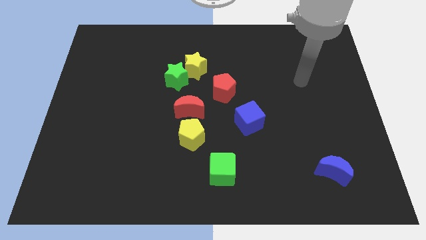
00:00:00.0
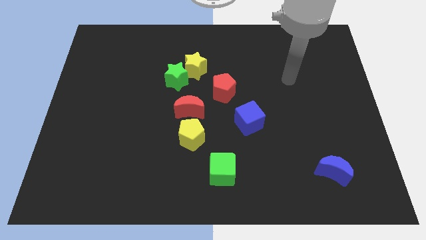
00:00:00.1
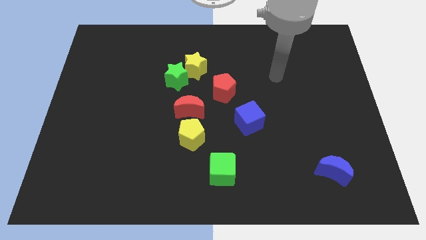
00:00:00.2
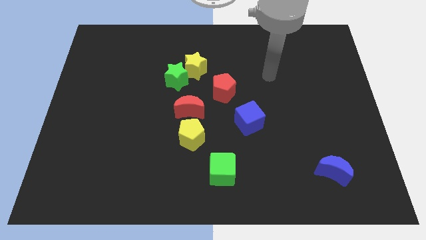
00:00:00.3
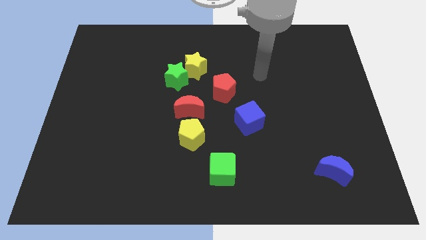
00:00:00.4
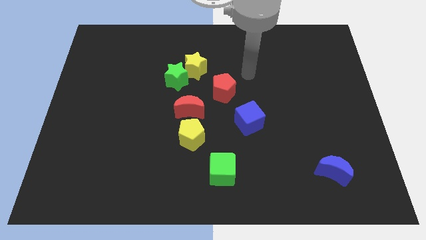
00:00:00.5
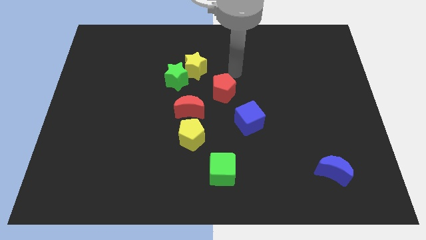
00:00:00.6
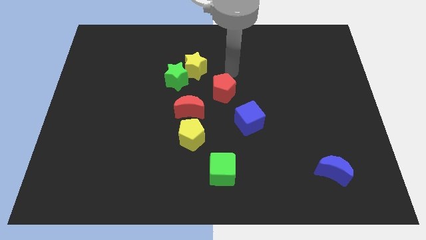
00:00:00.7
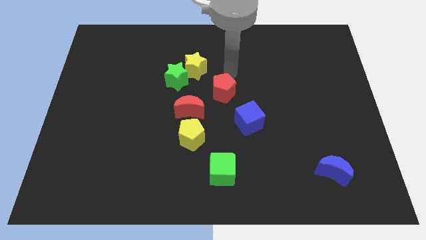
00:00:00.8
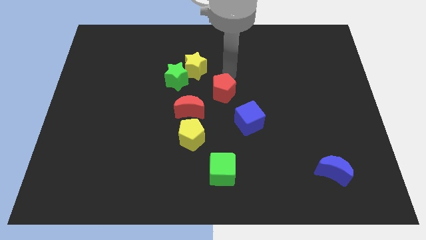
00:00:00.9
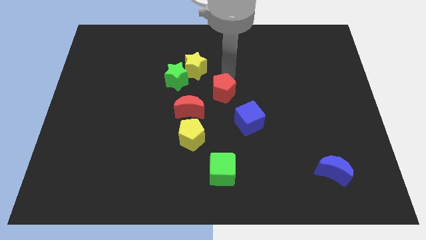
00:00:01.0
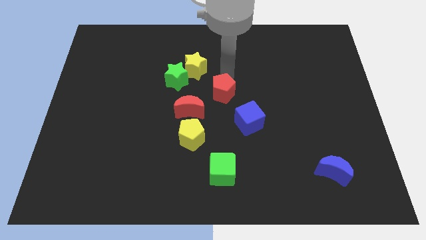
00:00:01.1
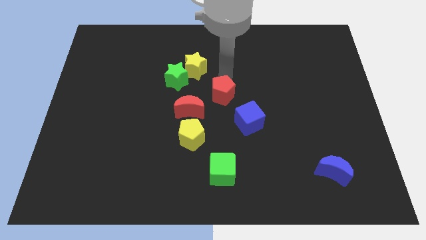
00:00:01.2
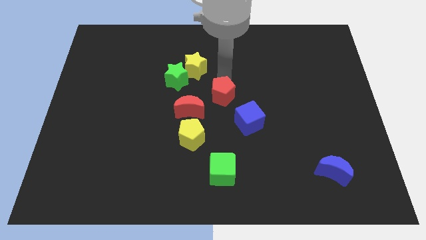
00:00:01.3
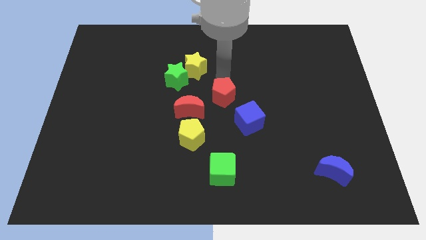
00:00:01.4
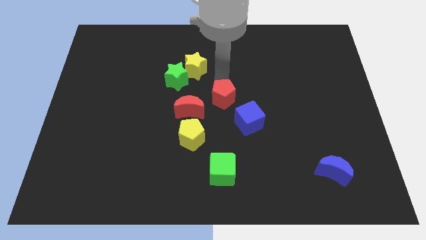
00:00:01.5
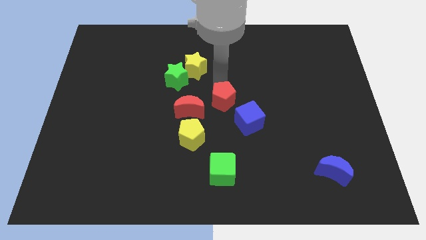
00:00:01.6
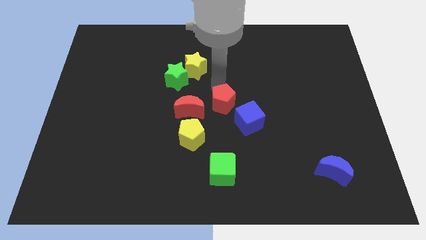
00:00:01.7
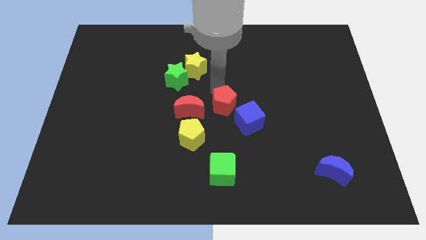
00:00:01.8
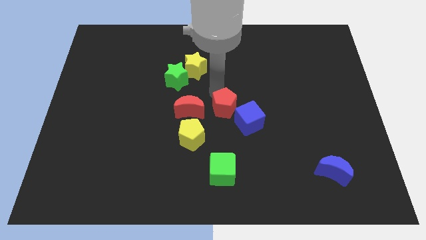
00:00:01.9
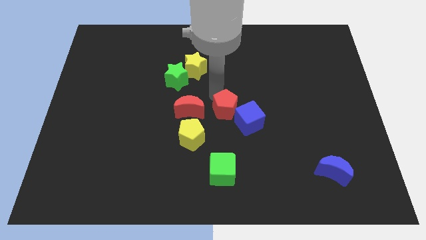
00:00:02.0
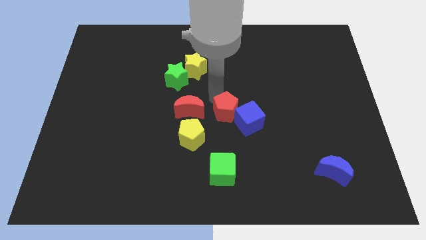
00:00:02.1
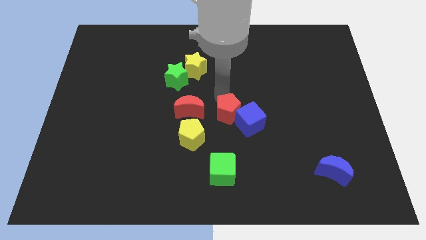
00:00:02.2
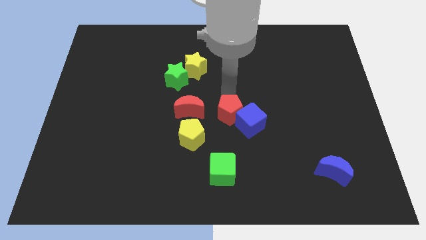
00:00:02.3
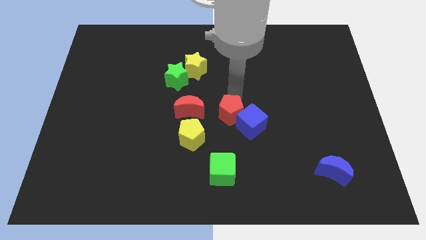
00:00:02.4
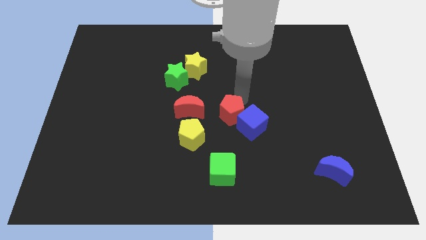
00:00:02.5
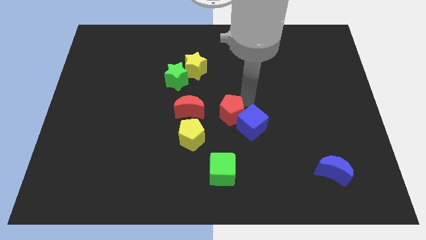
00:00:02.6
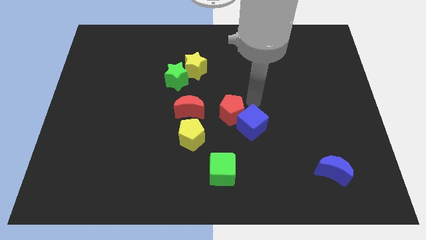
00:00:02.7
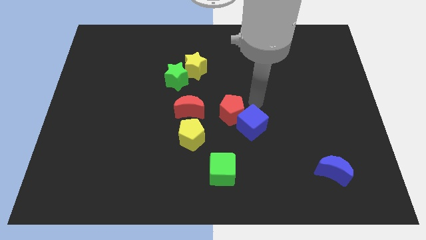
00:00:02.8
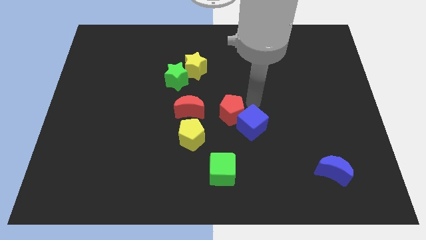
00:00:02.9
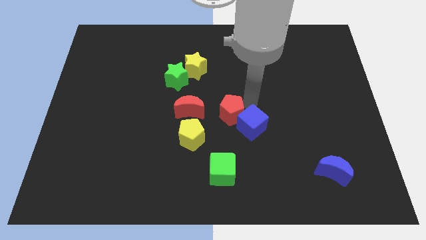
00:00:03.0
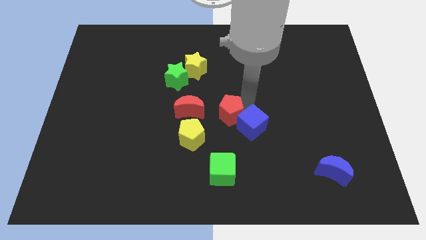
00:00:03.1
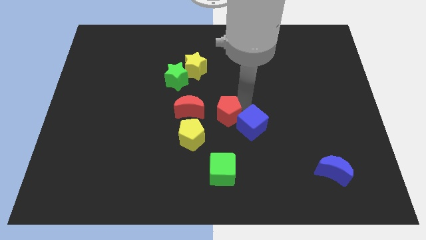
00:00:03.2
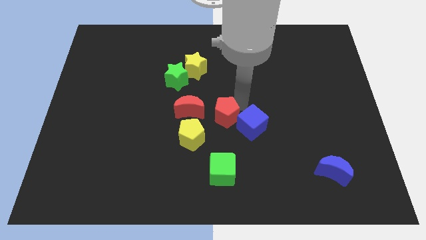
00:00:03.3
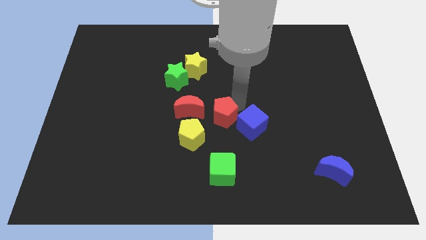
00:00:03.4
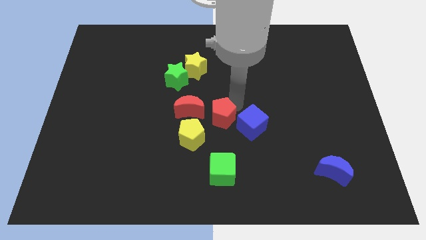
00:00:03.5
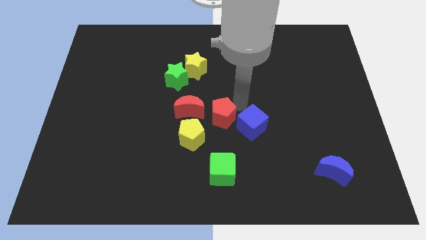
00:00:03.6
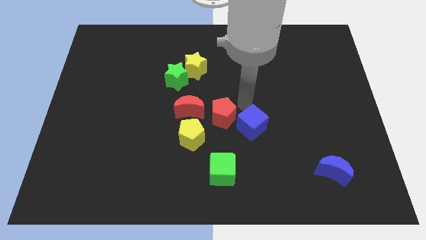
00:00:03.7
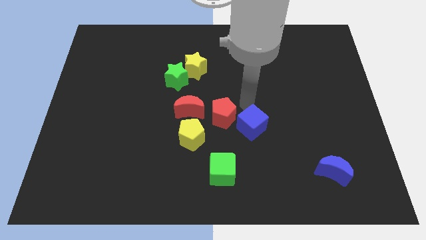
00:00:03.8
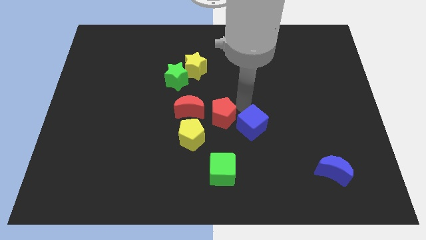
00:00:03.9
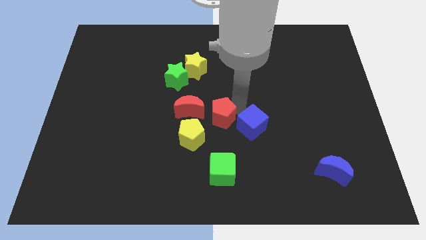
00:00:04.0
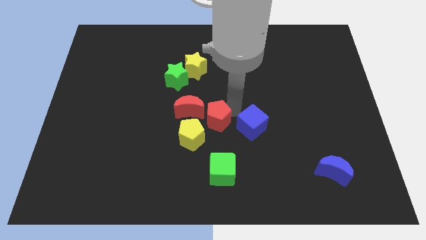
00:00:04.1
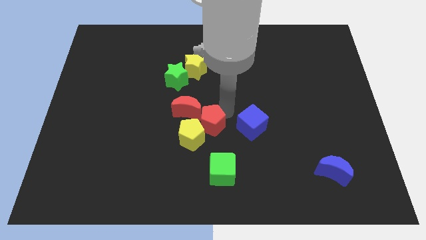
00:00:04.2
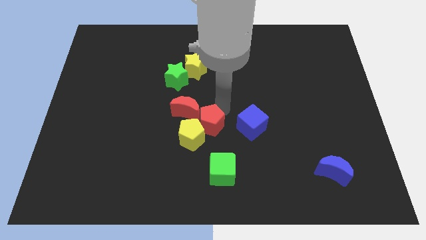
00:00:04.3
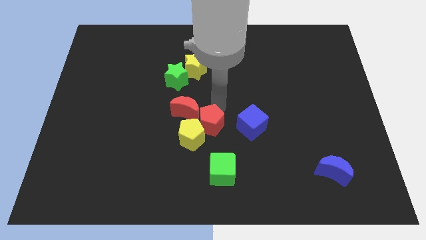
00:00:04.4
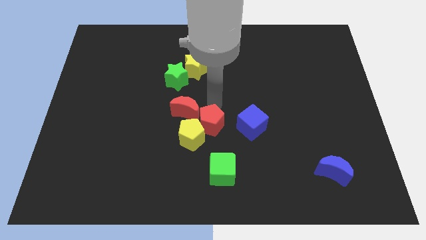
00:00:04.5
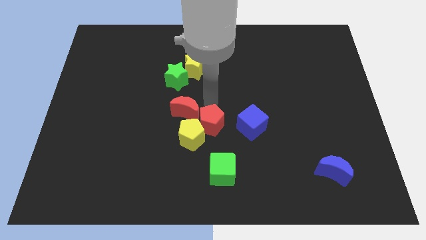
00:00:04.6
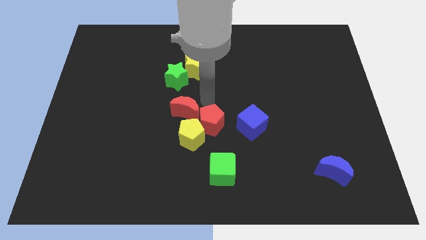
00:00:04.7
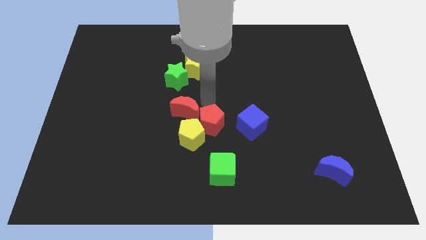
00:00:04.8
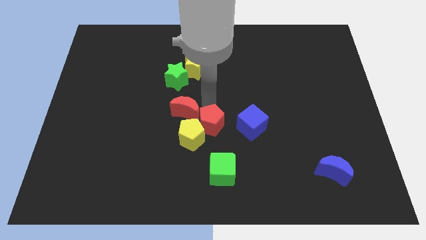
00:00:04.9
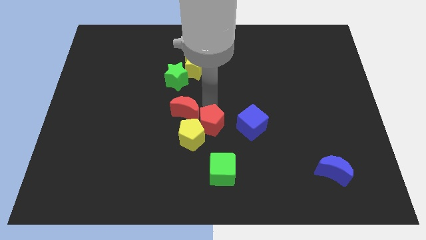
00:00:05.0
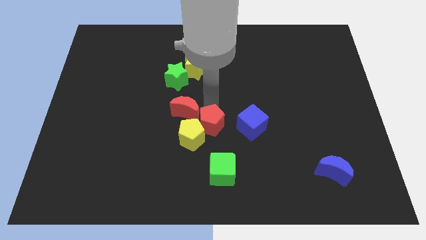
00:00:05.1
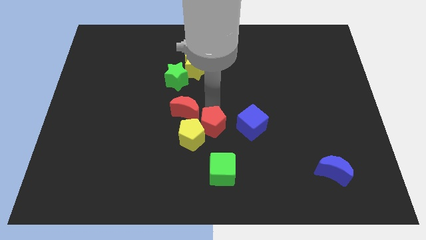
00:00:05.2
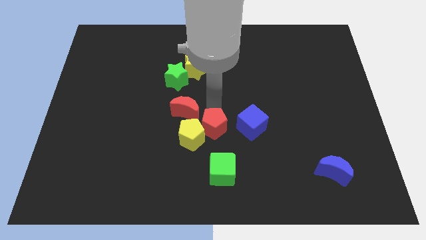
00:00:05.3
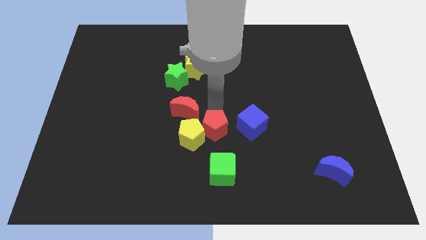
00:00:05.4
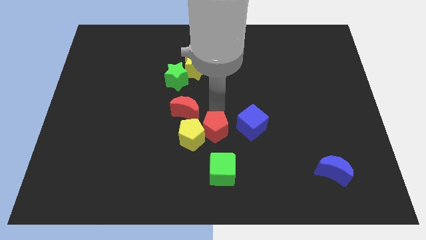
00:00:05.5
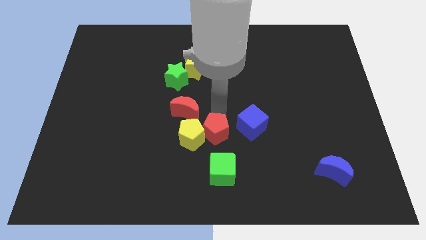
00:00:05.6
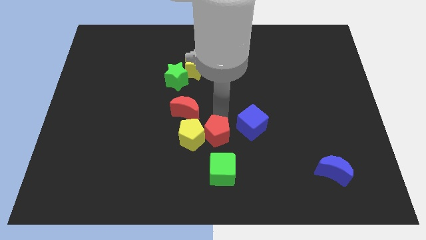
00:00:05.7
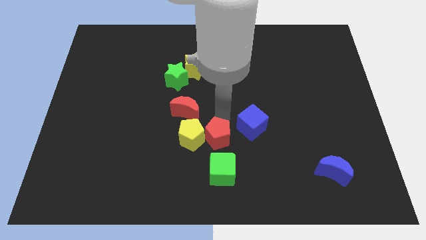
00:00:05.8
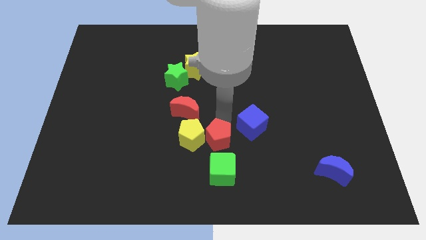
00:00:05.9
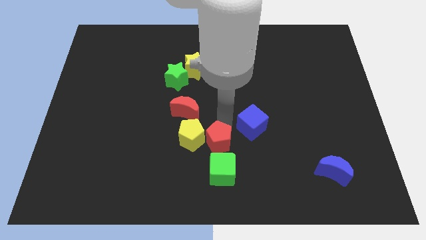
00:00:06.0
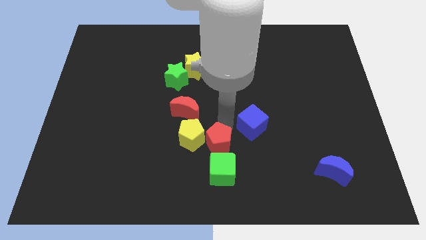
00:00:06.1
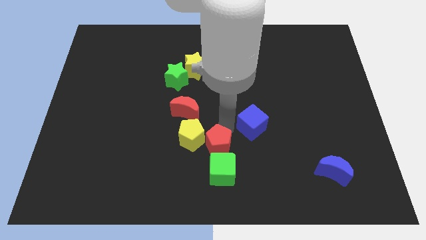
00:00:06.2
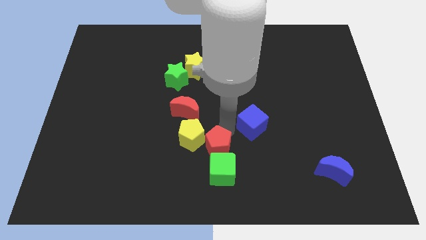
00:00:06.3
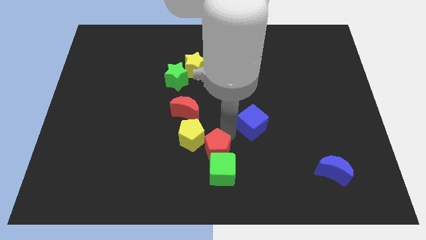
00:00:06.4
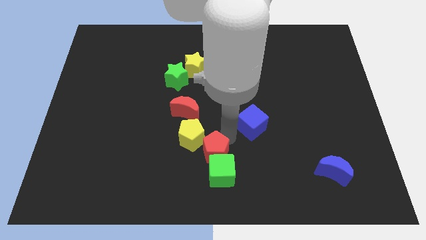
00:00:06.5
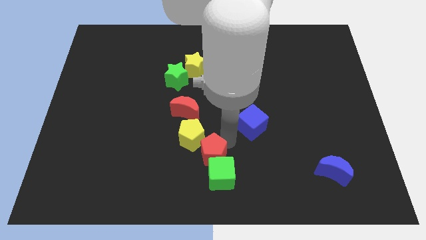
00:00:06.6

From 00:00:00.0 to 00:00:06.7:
slide the red pentagon to the bottom side
